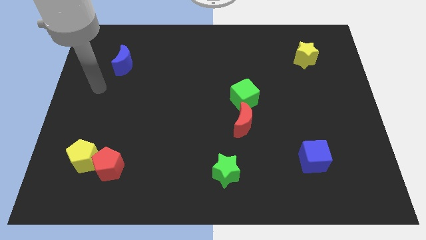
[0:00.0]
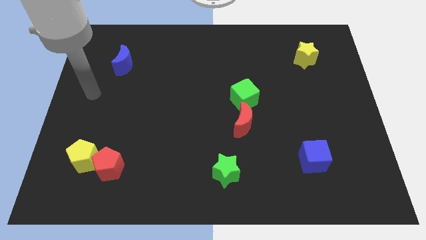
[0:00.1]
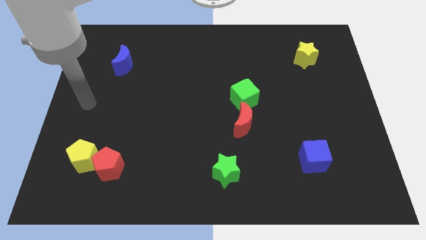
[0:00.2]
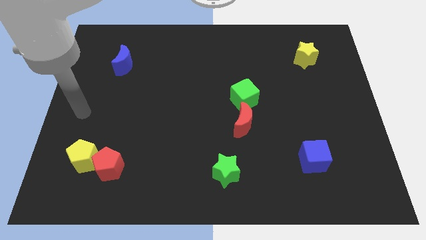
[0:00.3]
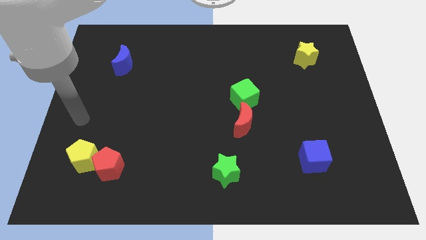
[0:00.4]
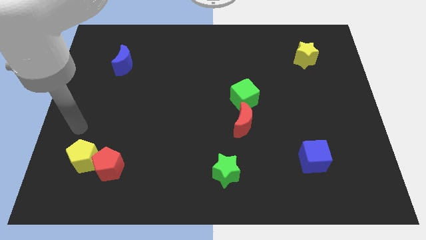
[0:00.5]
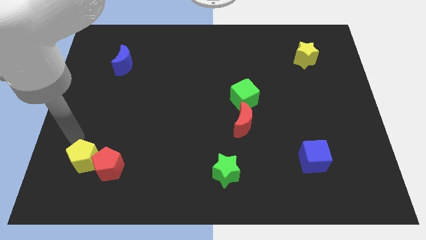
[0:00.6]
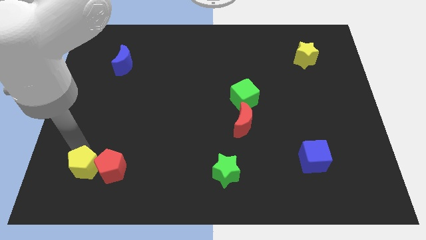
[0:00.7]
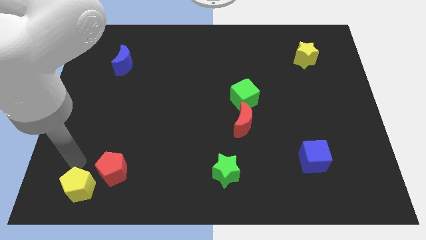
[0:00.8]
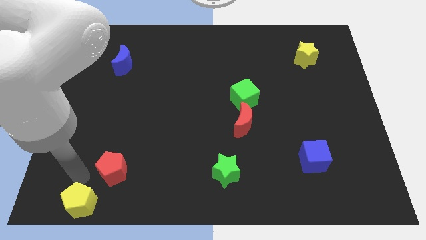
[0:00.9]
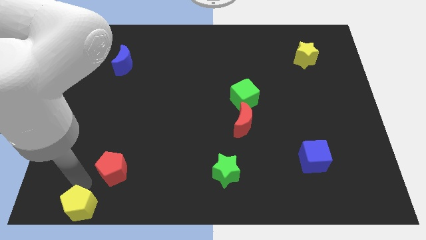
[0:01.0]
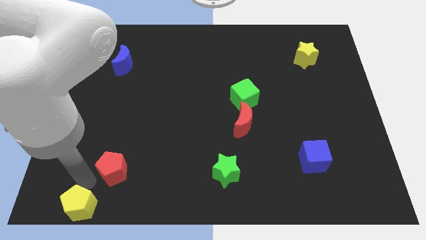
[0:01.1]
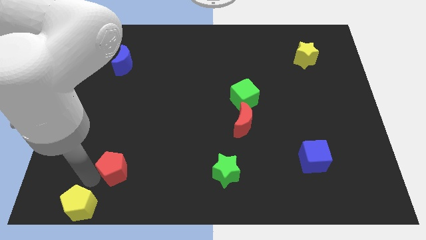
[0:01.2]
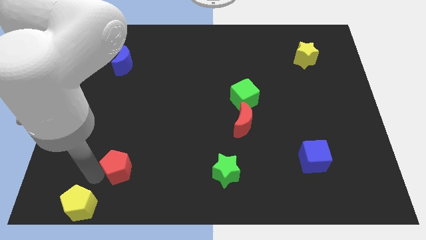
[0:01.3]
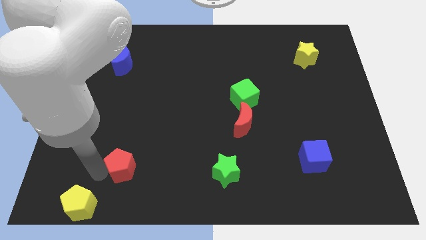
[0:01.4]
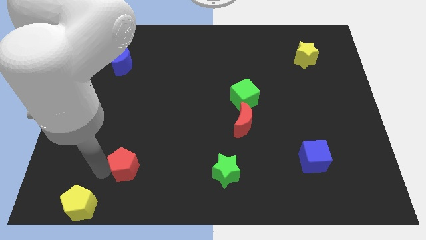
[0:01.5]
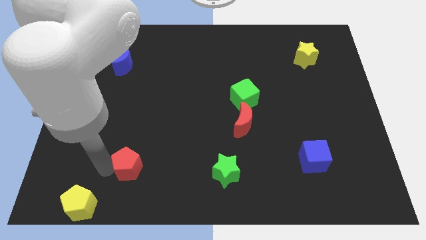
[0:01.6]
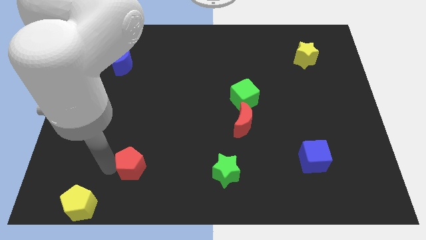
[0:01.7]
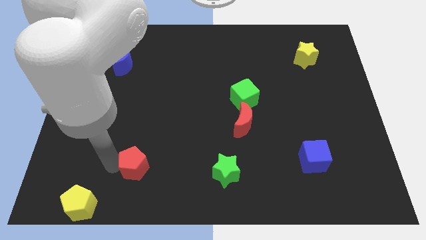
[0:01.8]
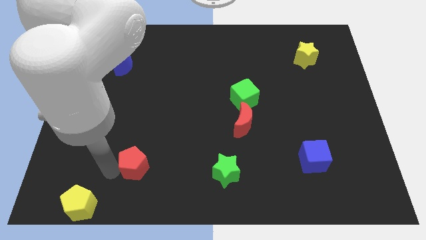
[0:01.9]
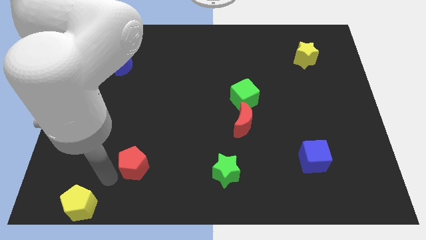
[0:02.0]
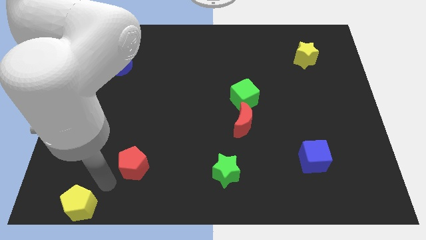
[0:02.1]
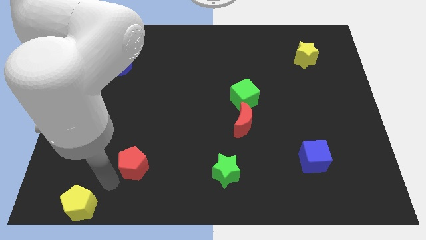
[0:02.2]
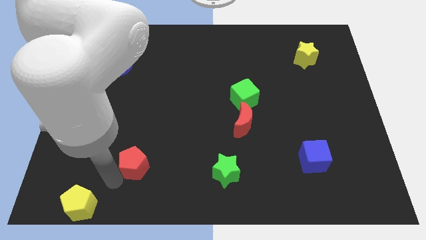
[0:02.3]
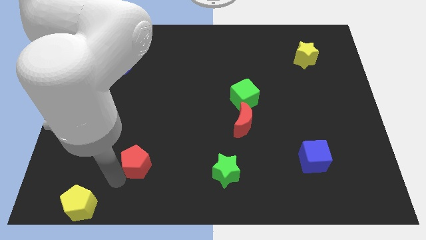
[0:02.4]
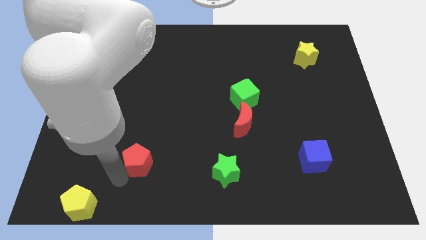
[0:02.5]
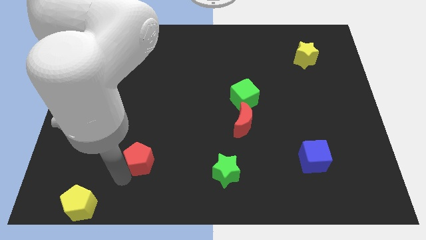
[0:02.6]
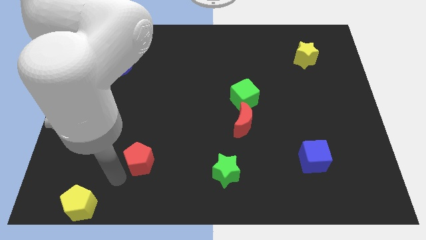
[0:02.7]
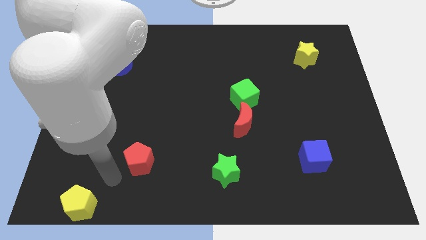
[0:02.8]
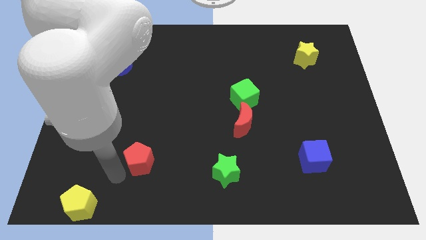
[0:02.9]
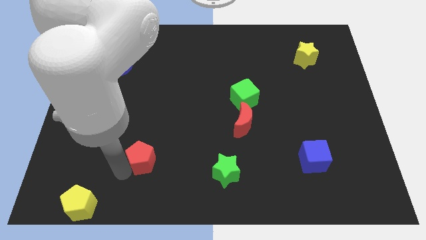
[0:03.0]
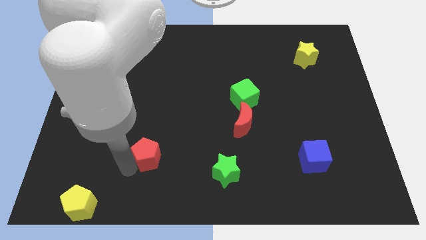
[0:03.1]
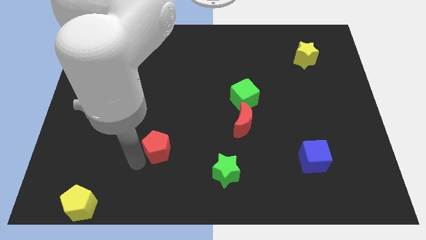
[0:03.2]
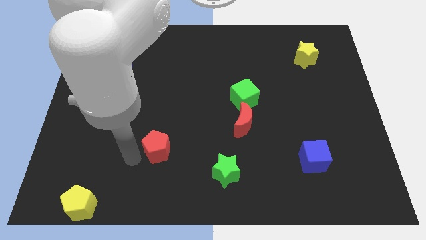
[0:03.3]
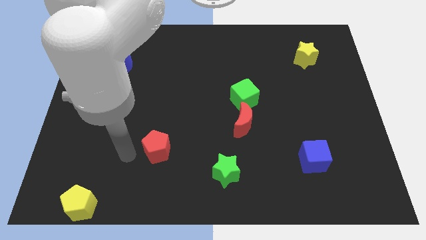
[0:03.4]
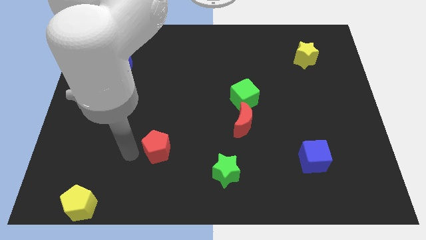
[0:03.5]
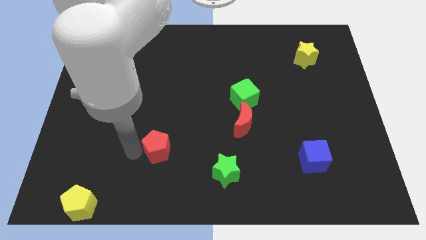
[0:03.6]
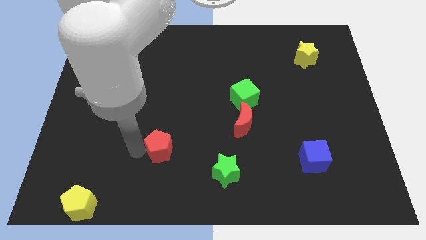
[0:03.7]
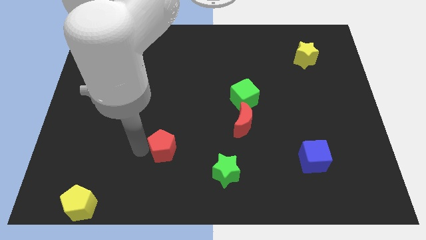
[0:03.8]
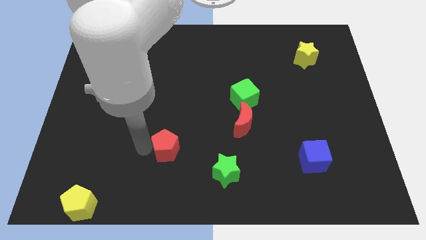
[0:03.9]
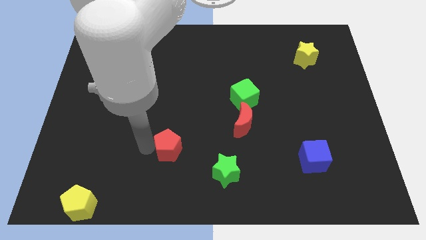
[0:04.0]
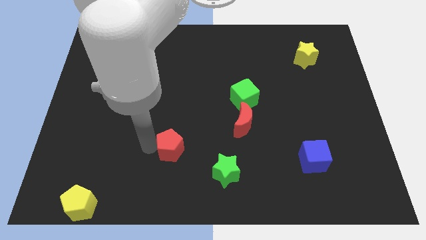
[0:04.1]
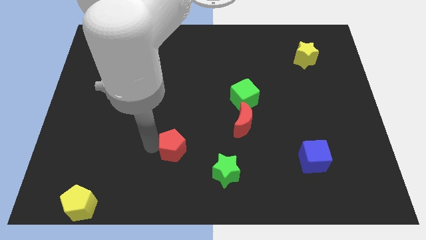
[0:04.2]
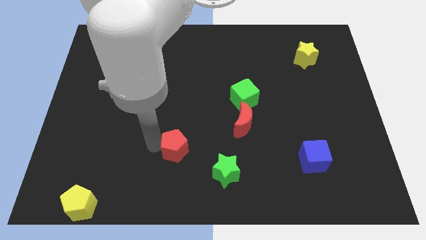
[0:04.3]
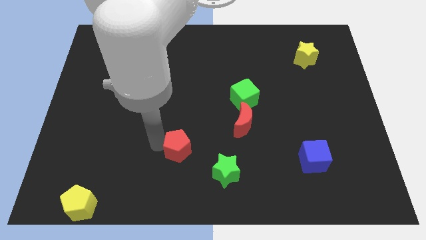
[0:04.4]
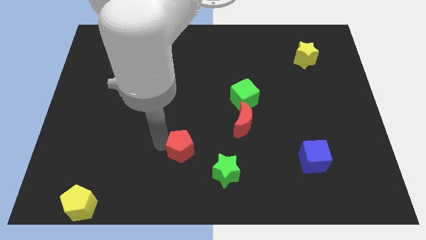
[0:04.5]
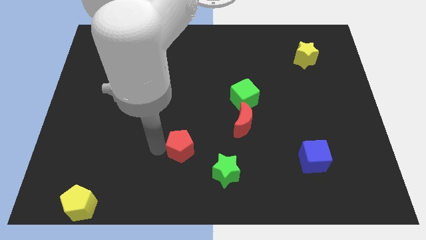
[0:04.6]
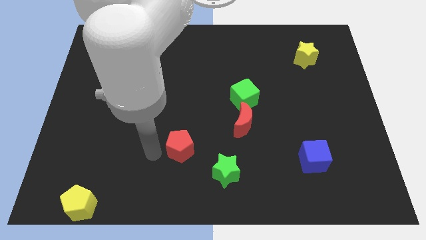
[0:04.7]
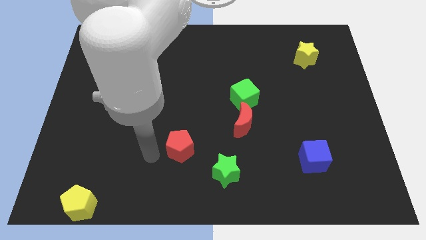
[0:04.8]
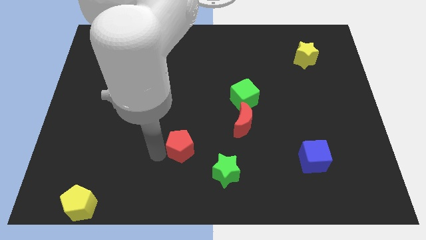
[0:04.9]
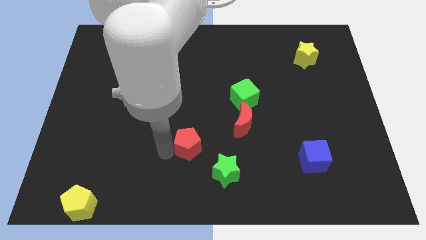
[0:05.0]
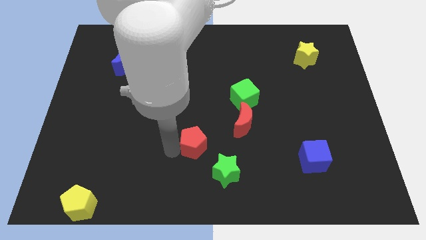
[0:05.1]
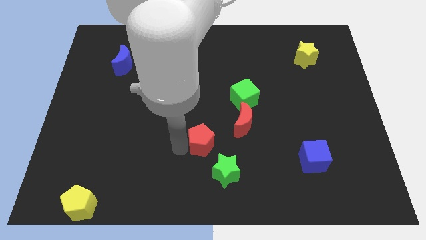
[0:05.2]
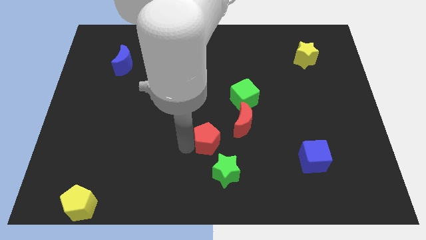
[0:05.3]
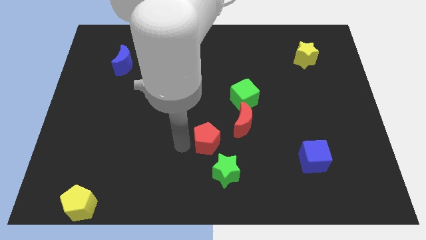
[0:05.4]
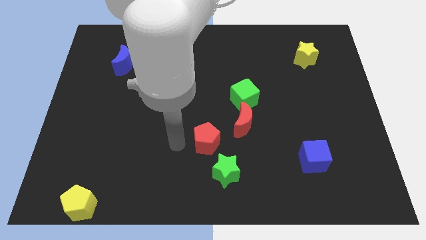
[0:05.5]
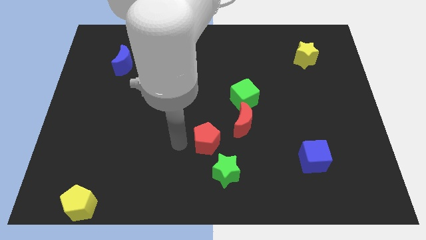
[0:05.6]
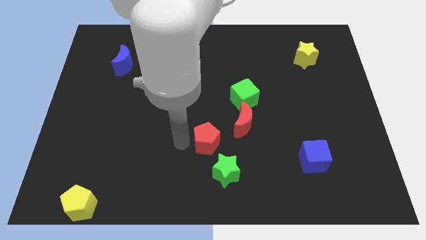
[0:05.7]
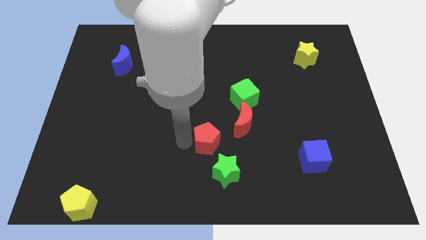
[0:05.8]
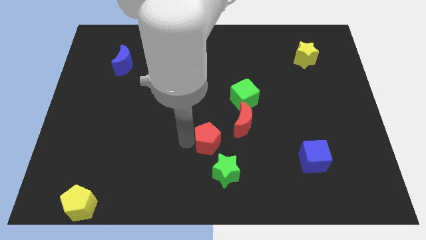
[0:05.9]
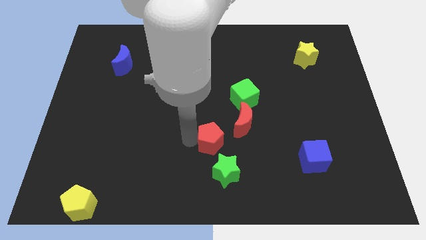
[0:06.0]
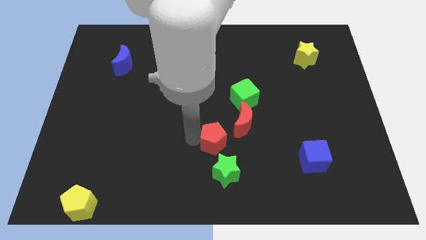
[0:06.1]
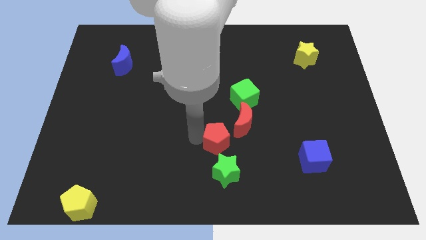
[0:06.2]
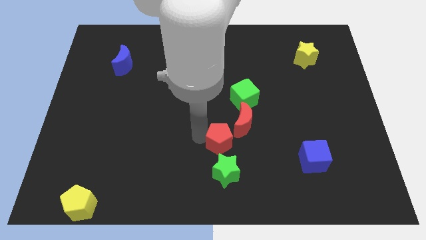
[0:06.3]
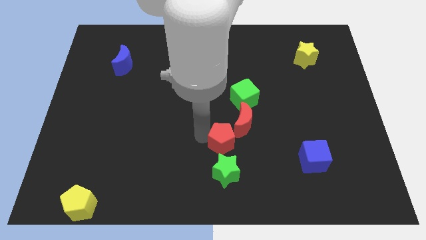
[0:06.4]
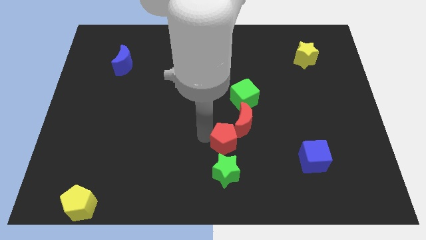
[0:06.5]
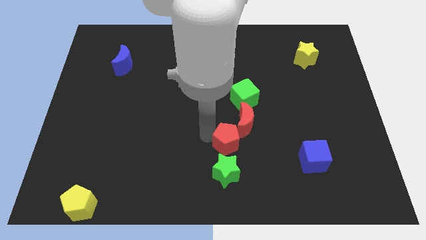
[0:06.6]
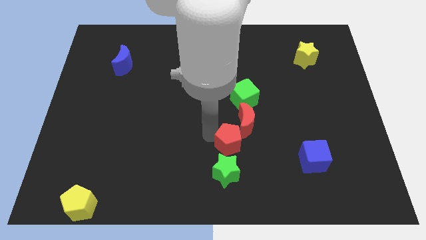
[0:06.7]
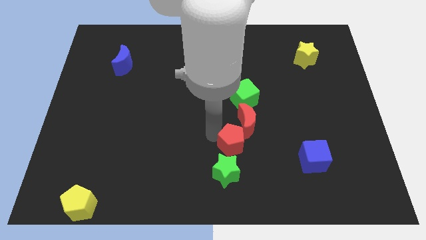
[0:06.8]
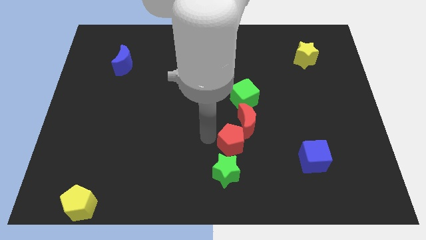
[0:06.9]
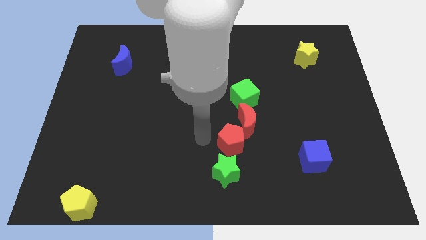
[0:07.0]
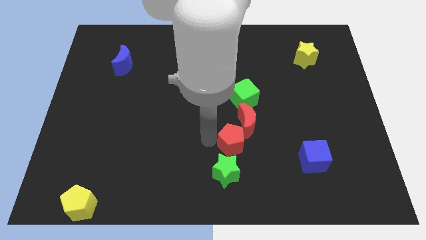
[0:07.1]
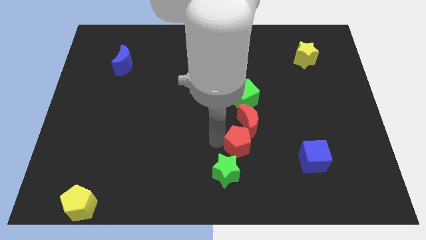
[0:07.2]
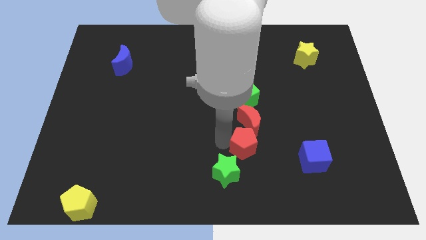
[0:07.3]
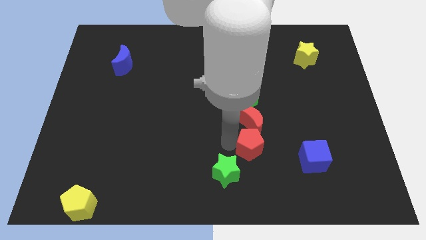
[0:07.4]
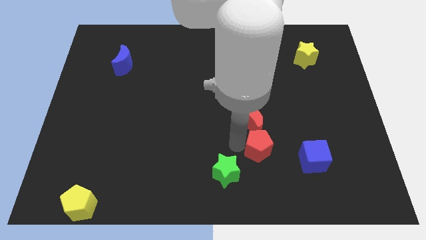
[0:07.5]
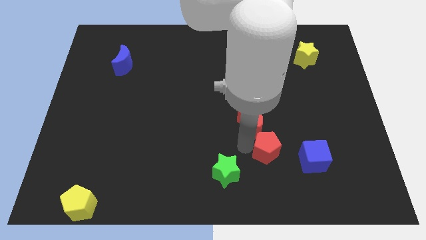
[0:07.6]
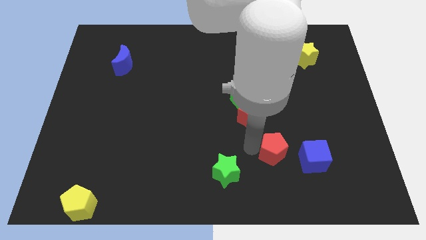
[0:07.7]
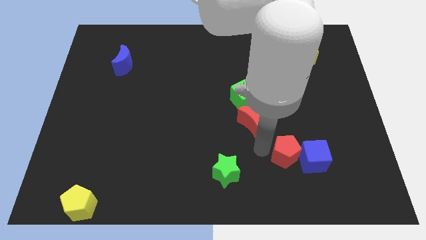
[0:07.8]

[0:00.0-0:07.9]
push the red pentagon to the blue cube
